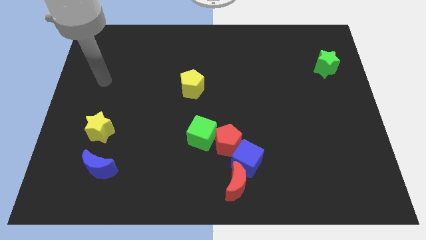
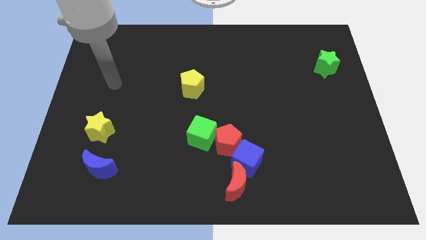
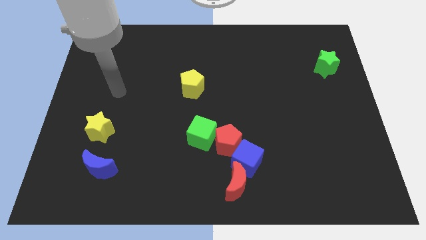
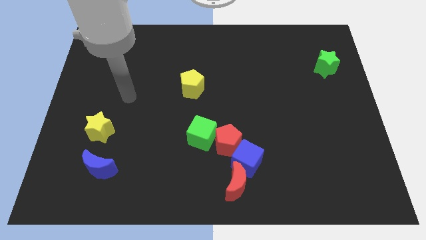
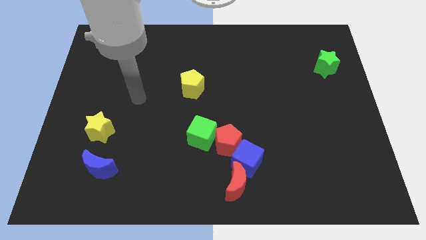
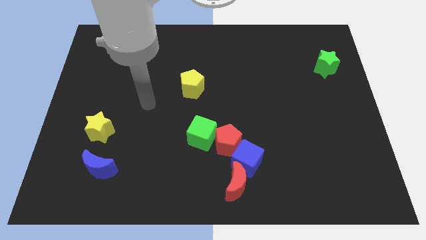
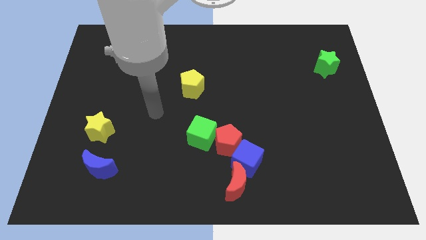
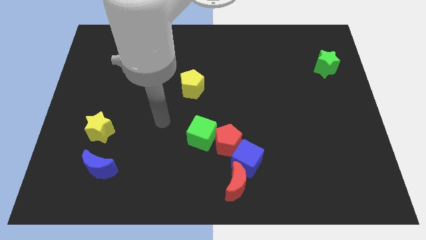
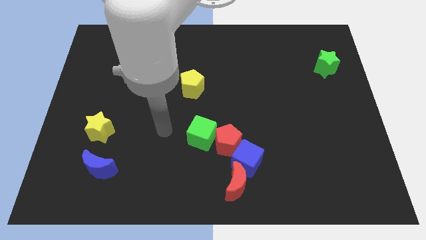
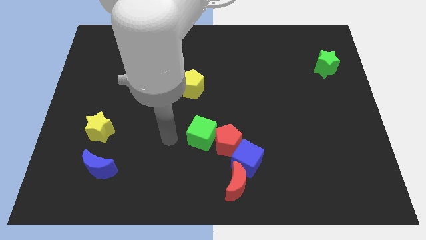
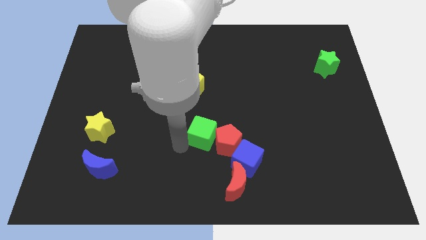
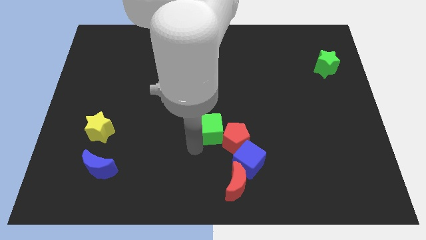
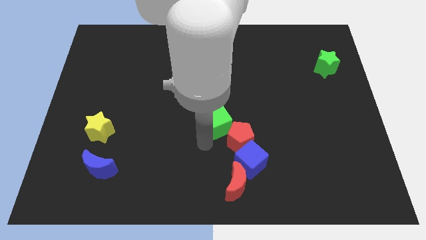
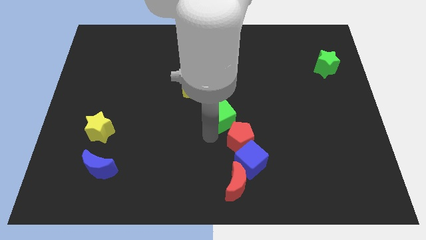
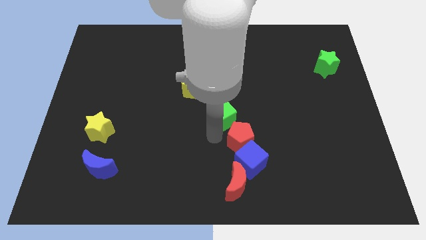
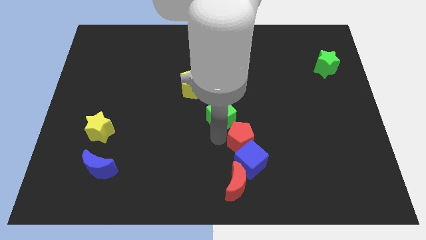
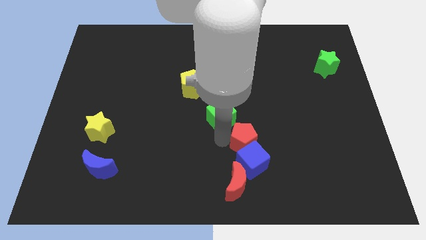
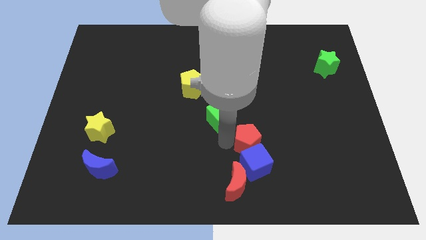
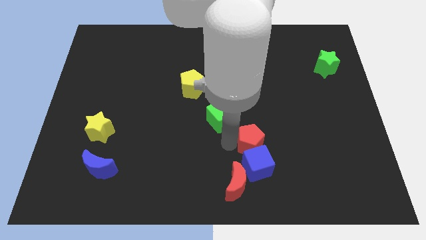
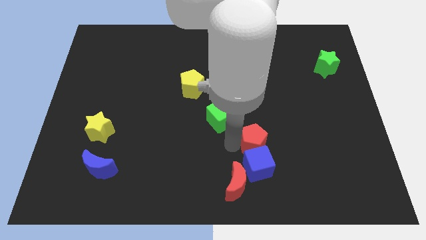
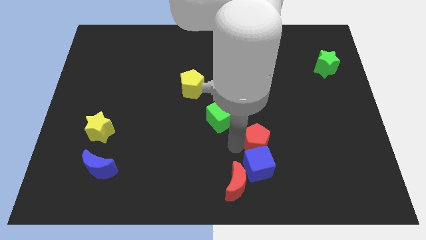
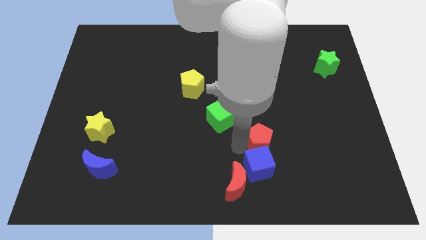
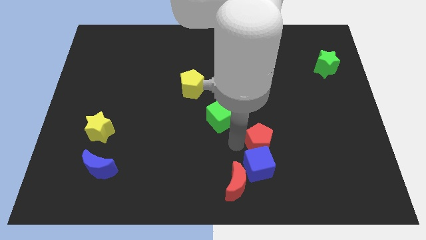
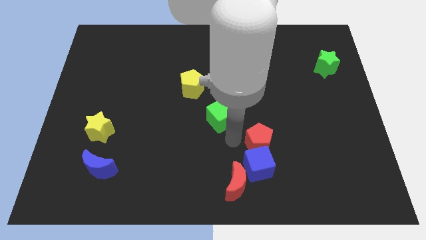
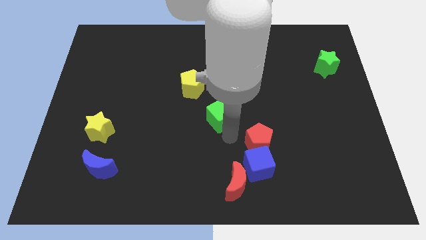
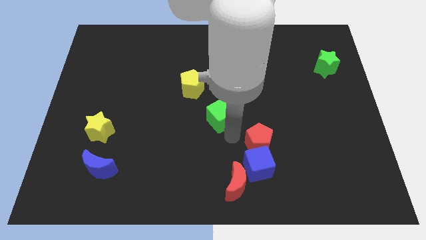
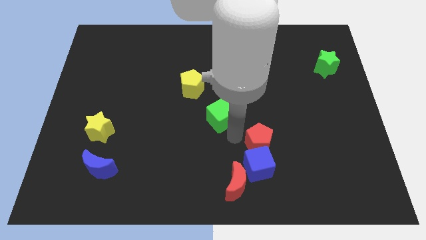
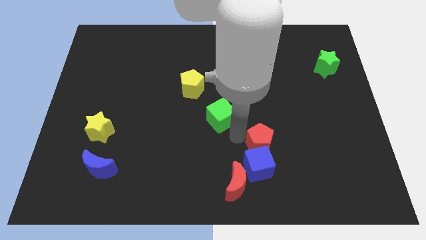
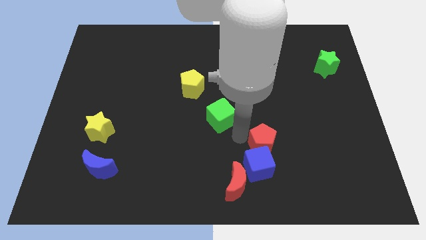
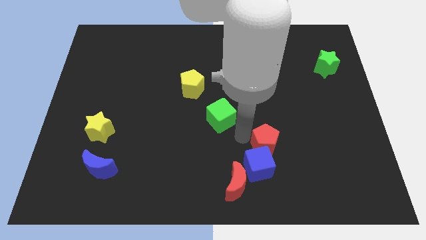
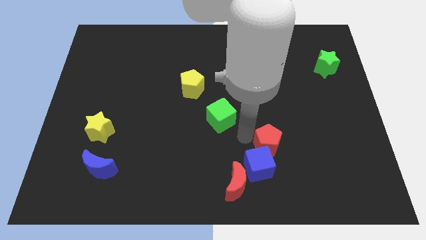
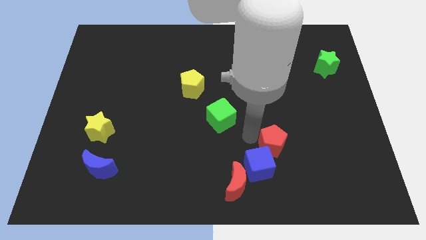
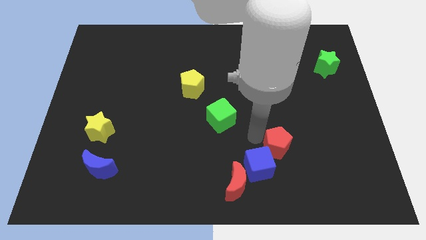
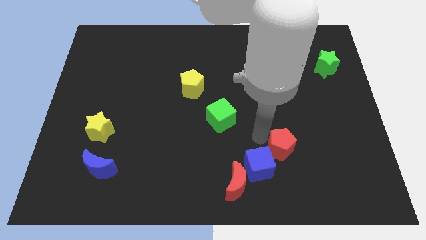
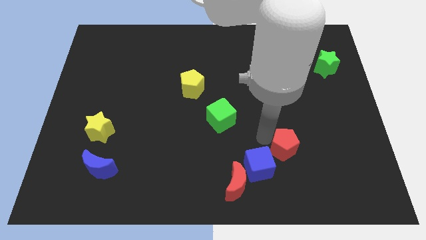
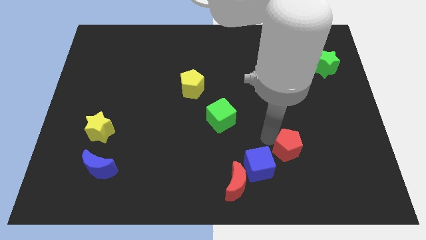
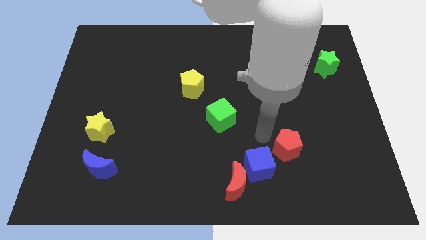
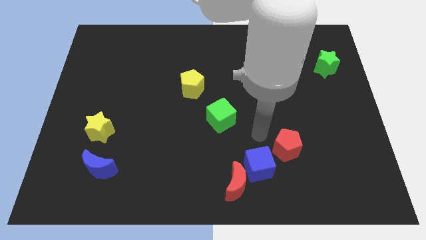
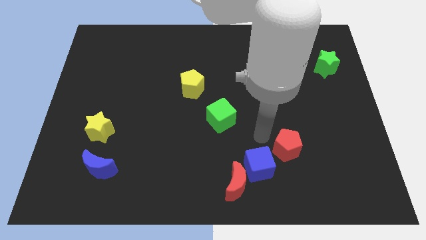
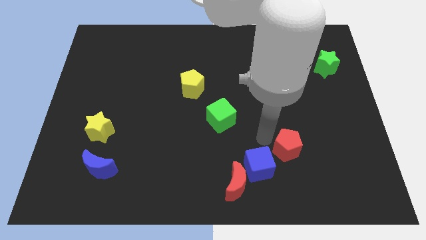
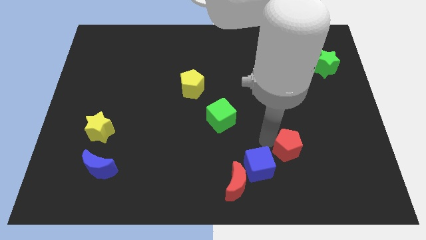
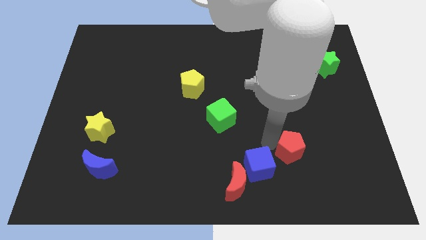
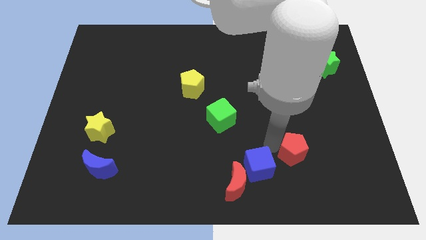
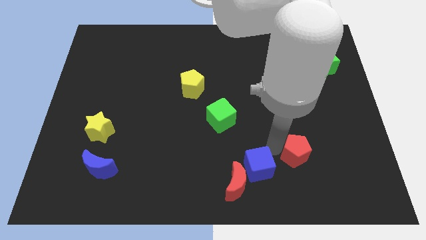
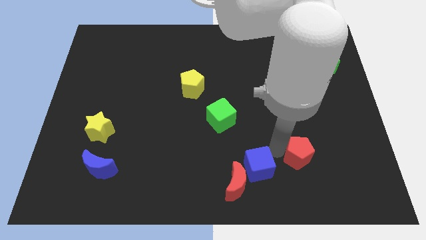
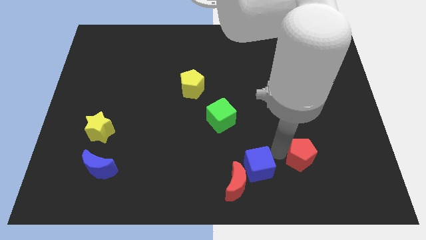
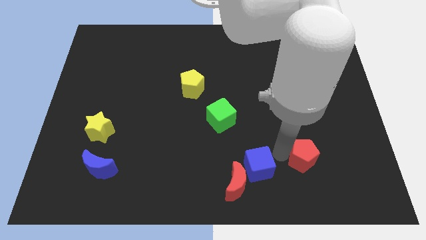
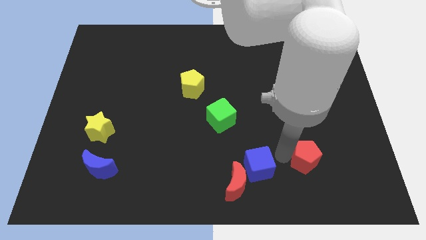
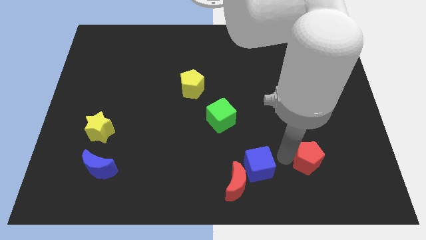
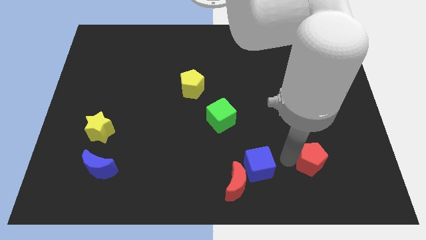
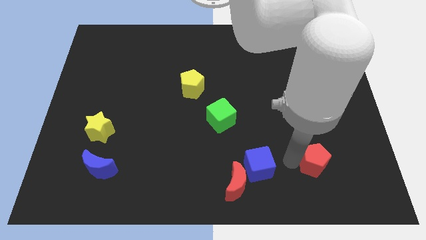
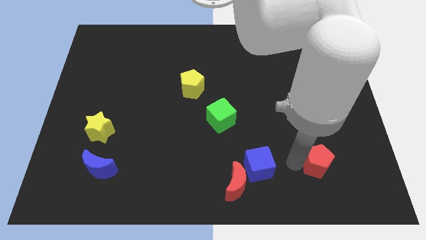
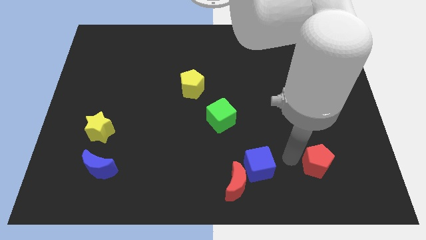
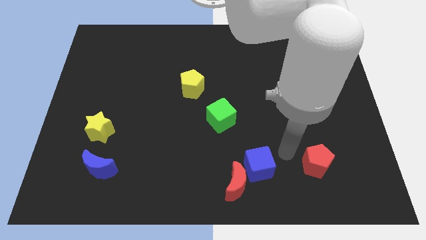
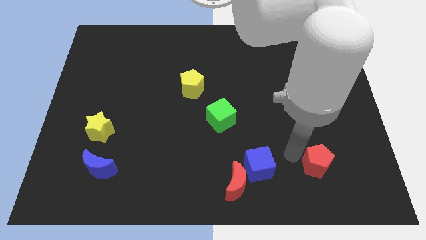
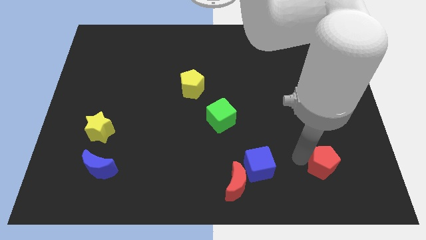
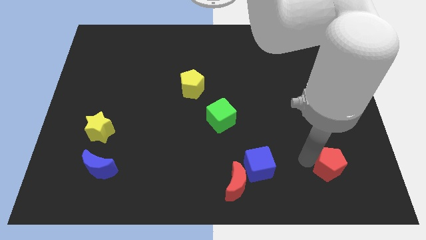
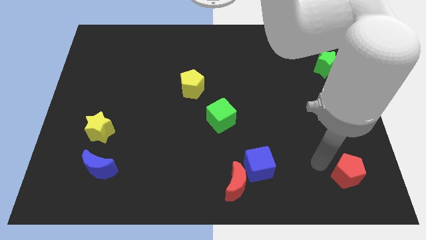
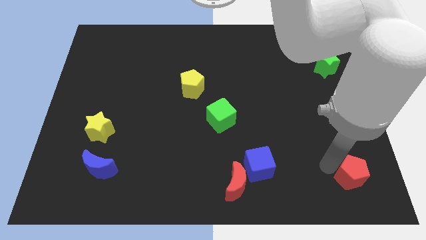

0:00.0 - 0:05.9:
slide the red pentagon to the bottom right corner

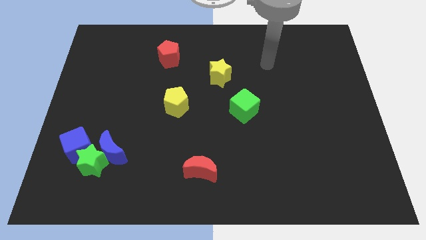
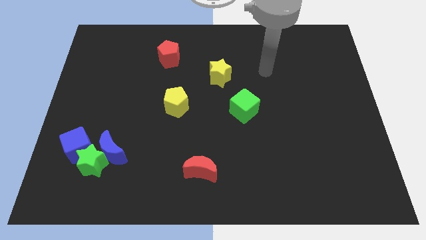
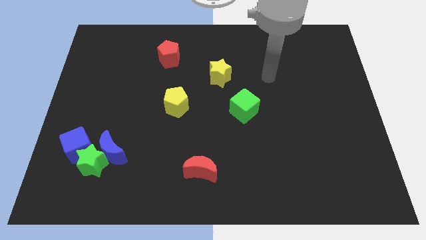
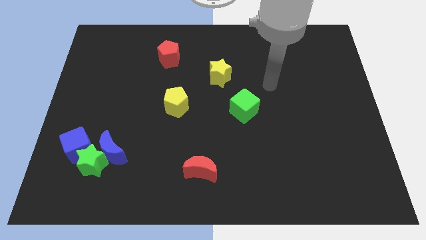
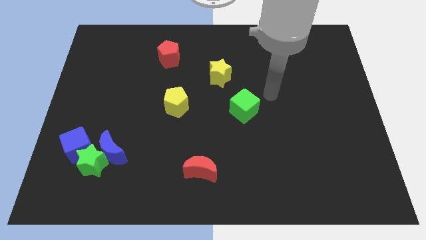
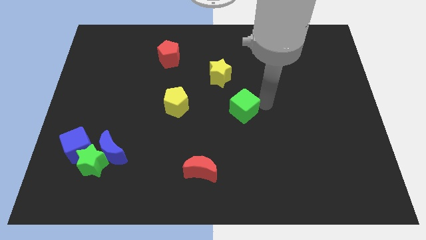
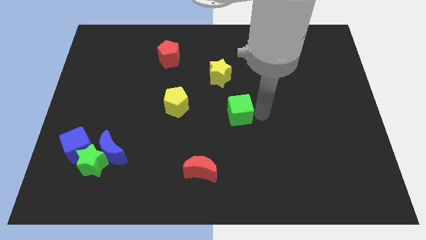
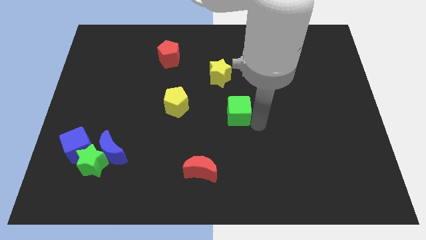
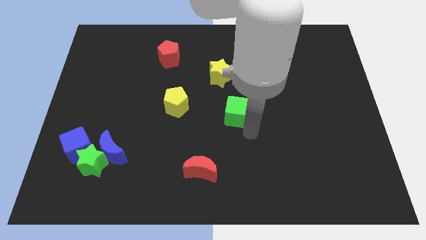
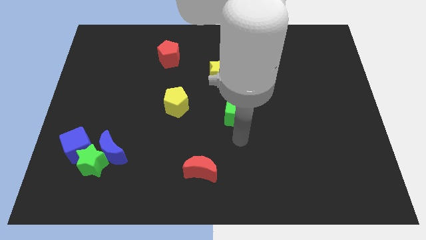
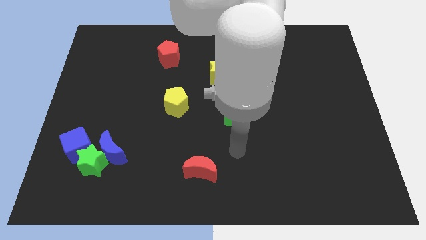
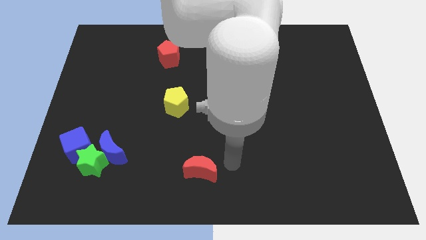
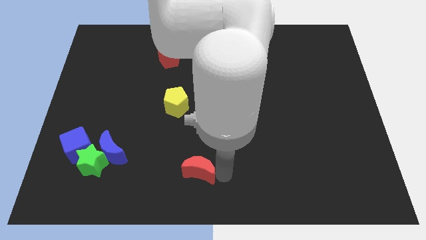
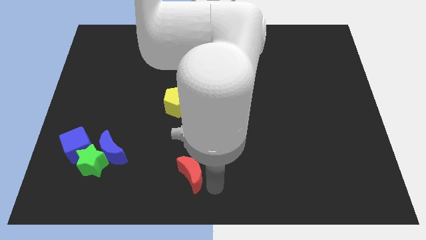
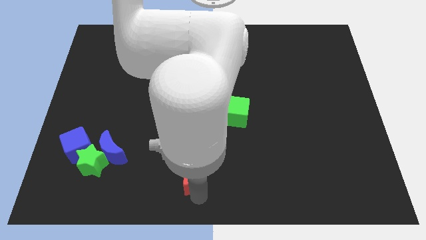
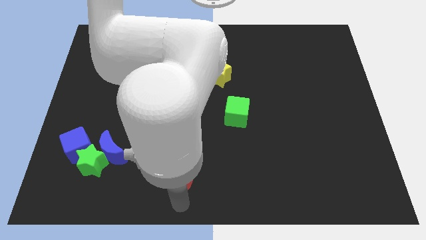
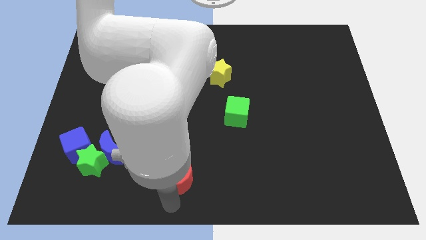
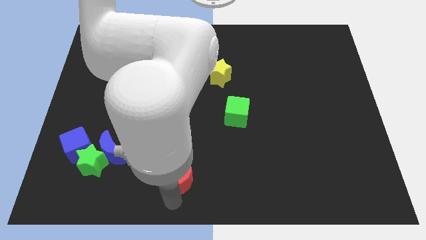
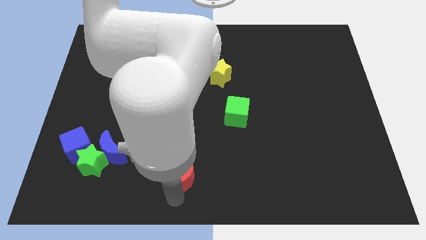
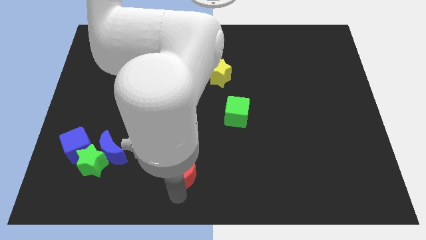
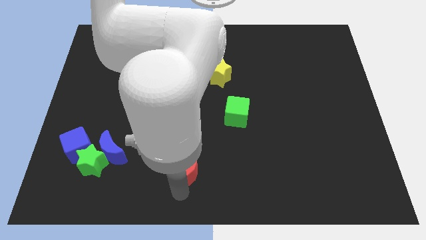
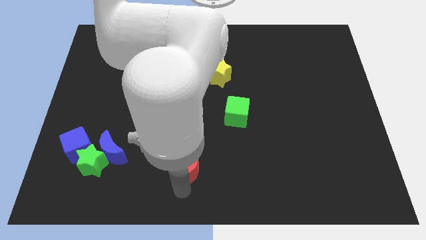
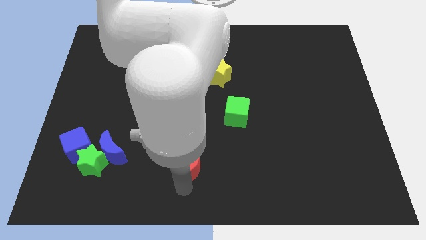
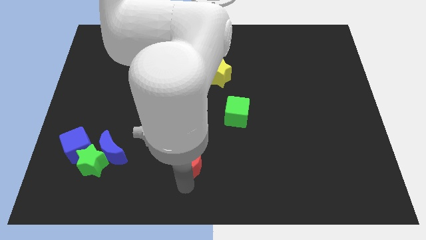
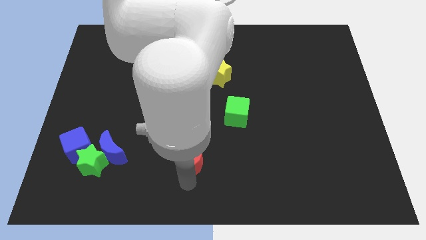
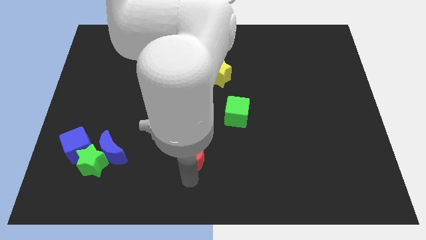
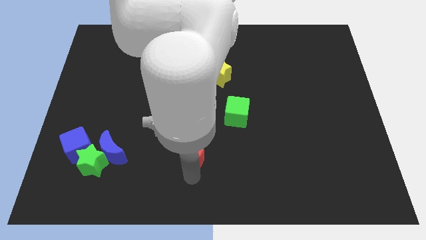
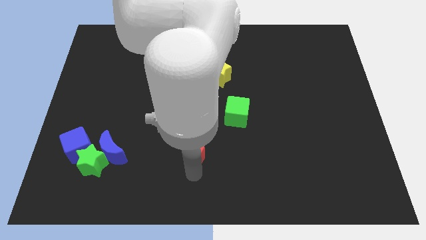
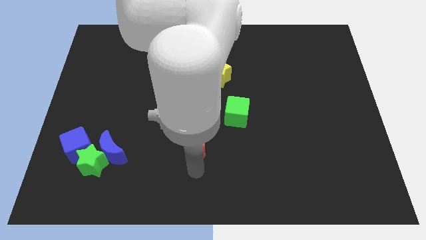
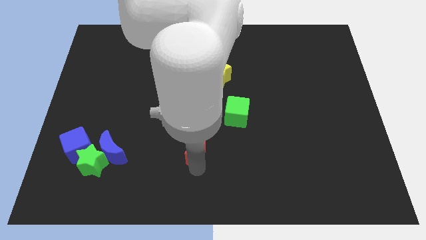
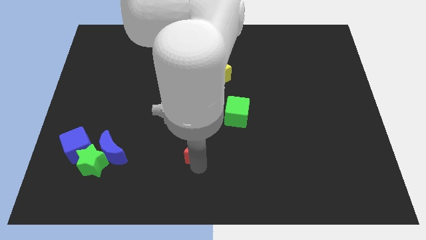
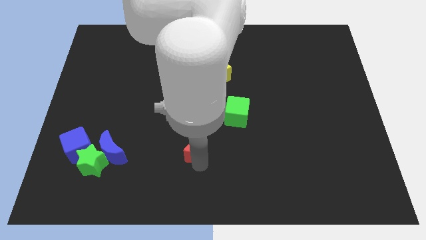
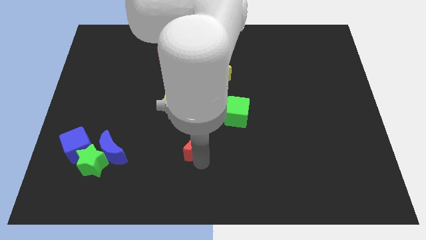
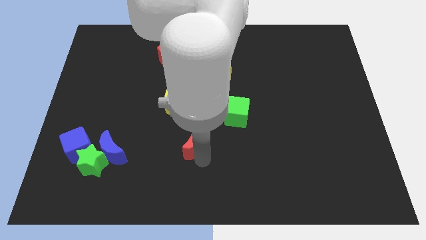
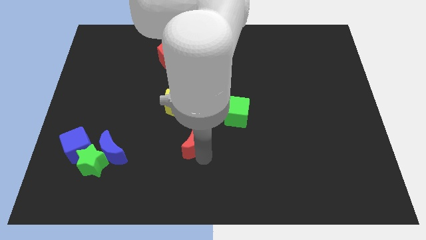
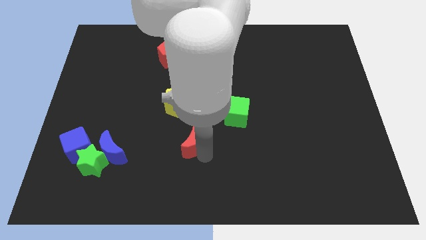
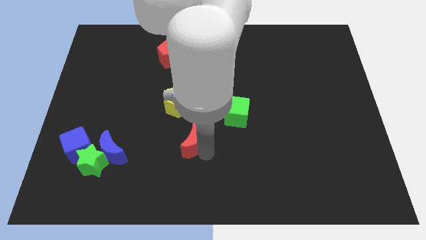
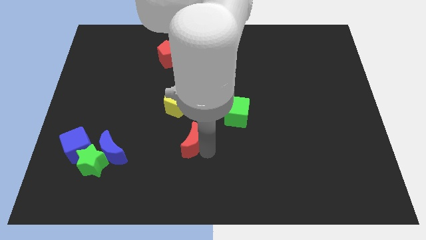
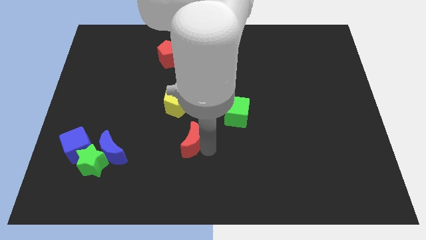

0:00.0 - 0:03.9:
move the red moon to the middle of the board
